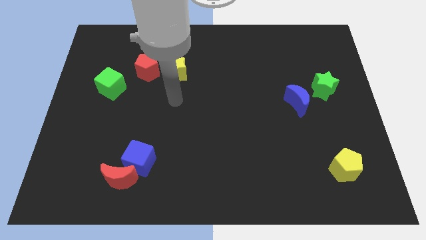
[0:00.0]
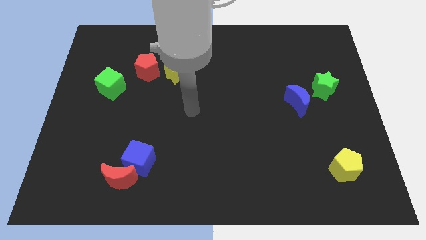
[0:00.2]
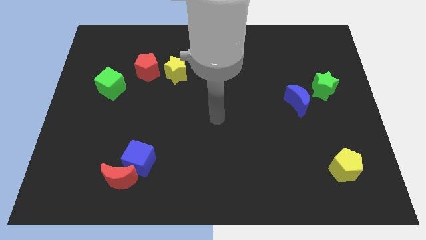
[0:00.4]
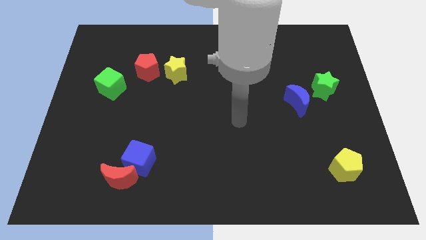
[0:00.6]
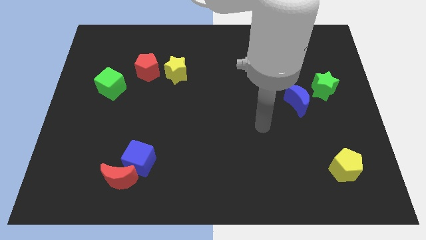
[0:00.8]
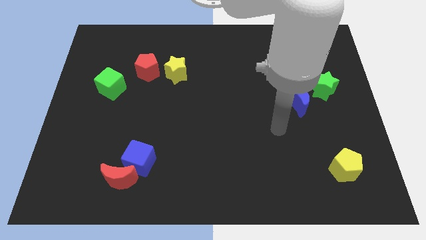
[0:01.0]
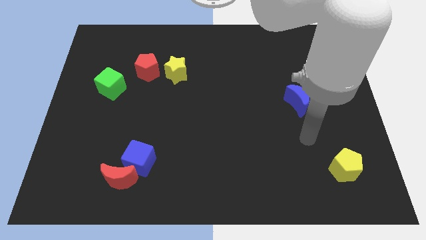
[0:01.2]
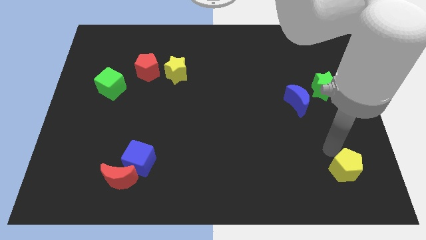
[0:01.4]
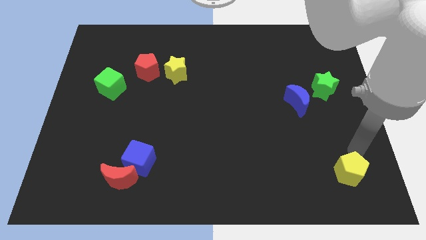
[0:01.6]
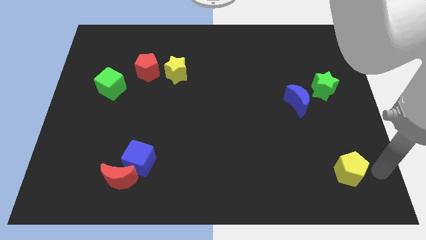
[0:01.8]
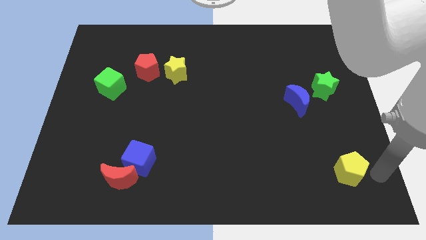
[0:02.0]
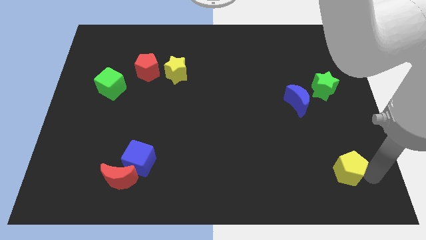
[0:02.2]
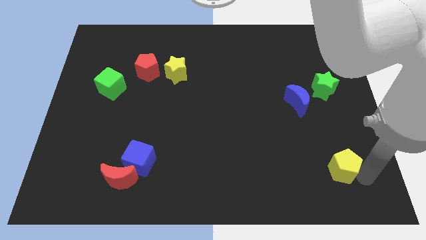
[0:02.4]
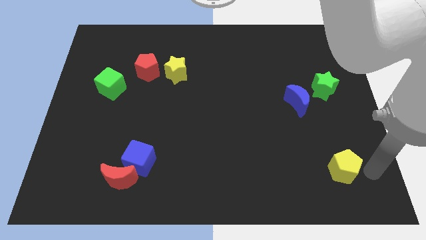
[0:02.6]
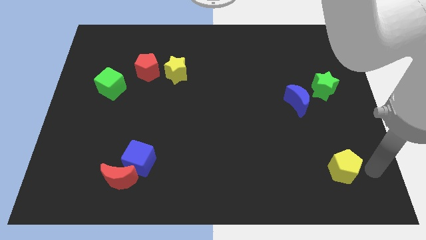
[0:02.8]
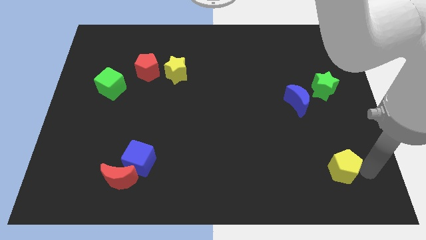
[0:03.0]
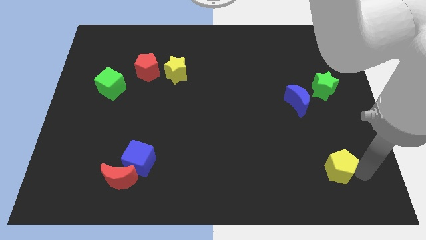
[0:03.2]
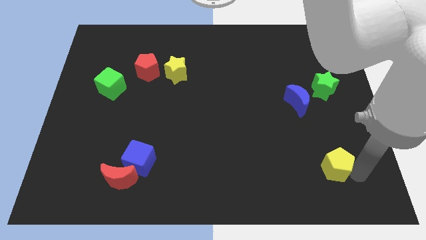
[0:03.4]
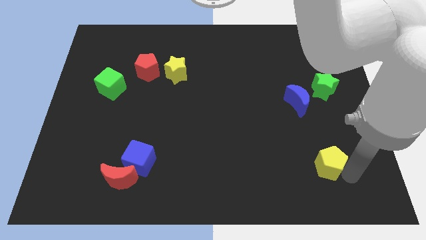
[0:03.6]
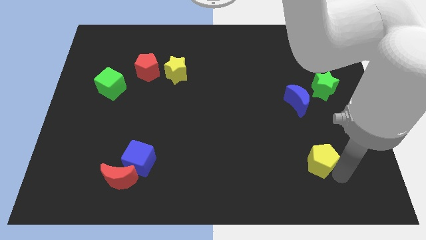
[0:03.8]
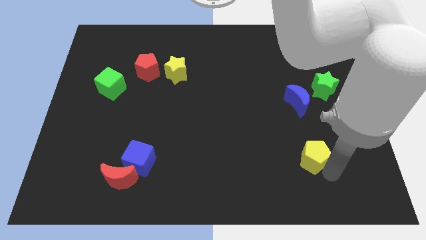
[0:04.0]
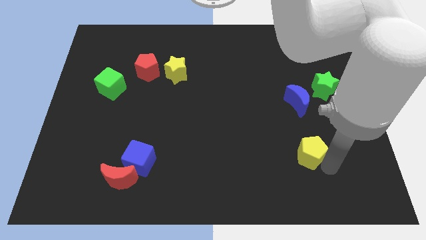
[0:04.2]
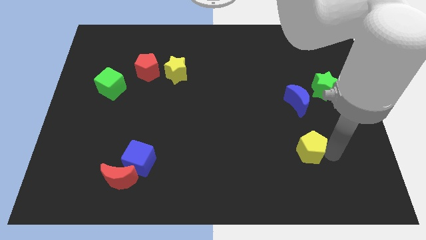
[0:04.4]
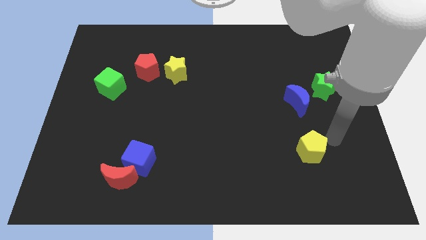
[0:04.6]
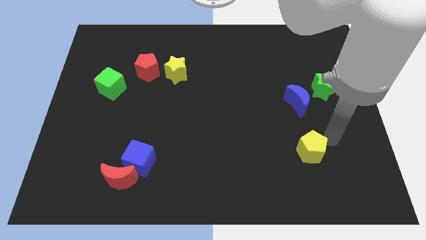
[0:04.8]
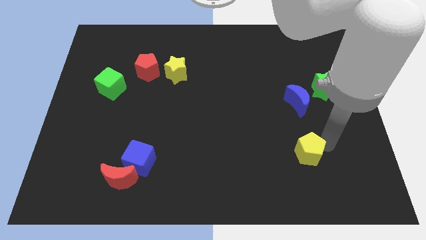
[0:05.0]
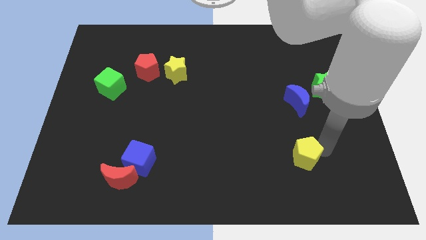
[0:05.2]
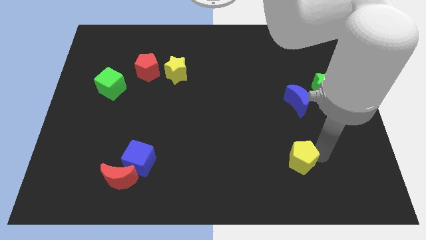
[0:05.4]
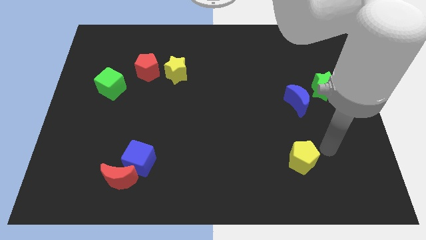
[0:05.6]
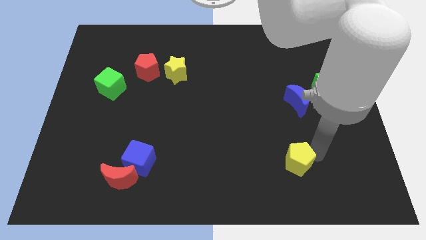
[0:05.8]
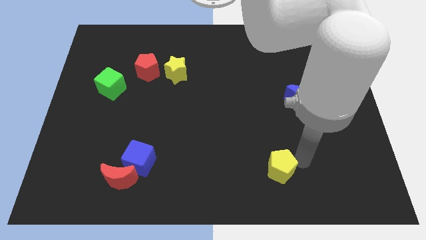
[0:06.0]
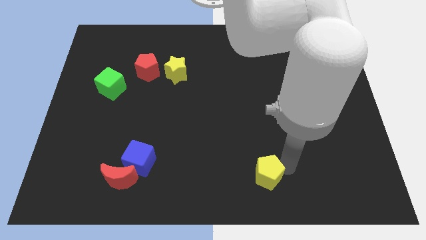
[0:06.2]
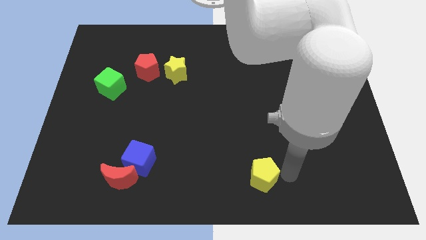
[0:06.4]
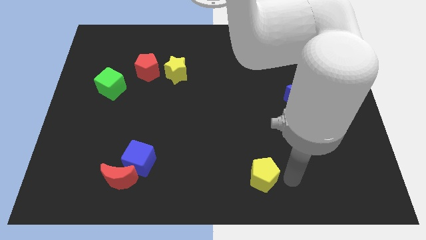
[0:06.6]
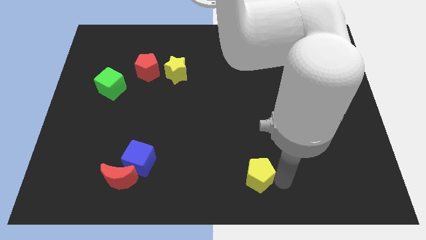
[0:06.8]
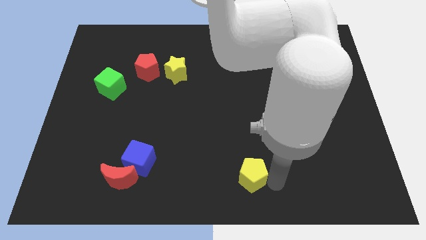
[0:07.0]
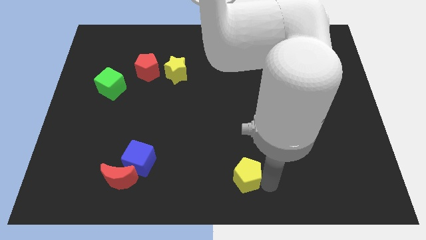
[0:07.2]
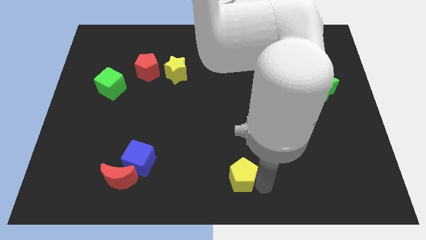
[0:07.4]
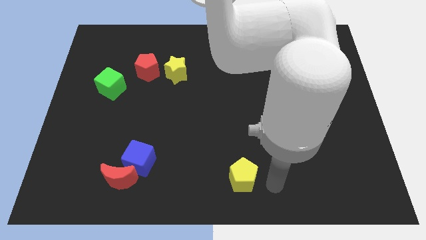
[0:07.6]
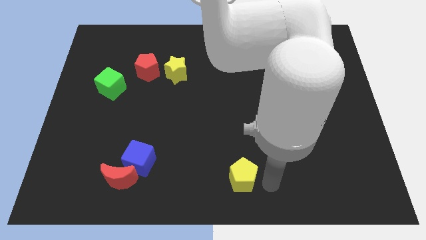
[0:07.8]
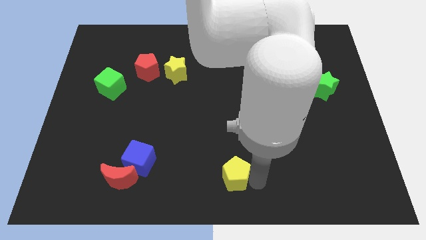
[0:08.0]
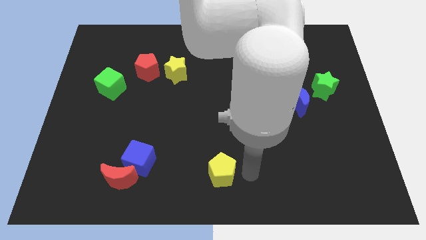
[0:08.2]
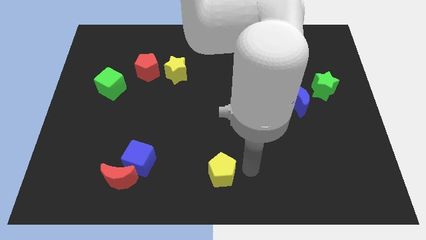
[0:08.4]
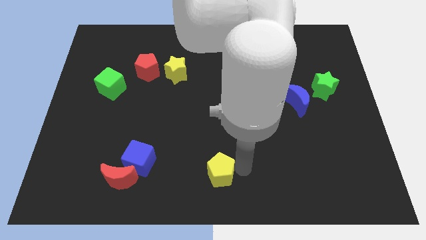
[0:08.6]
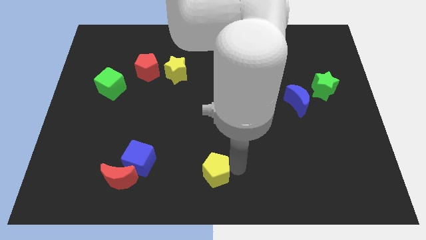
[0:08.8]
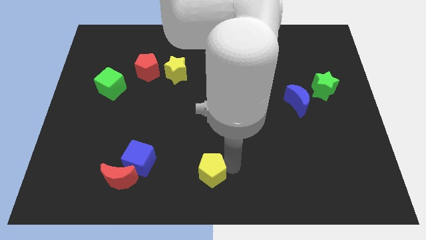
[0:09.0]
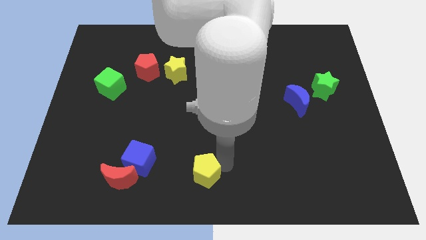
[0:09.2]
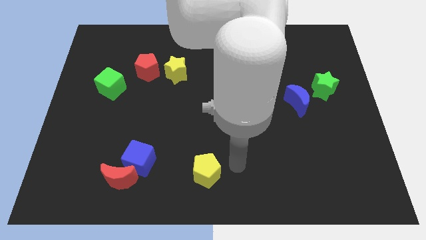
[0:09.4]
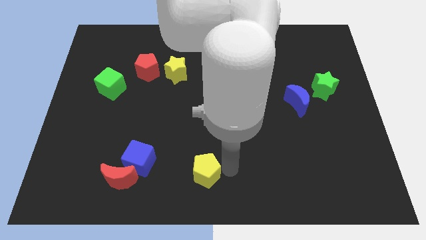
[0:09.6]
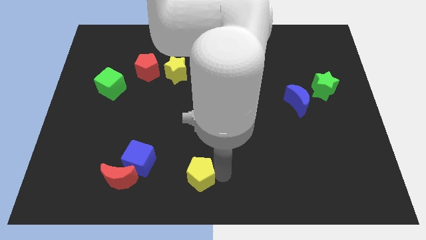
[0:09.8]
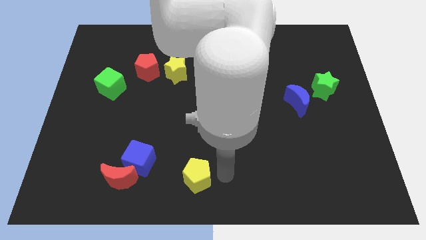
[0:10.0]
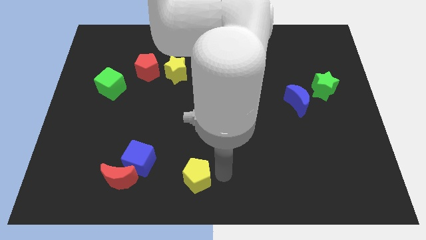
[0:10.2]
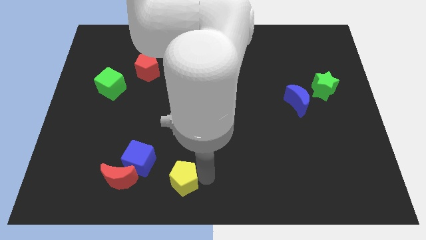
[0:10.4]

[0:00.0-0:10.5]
put the yellow pentagon to the bottom right side of the blue cube

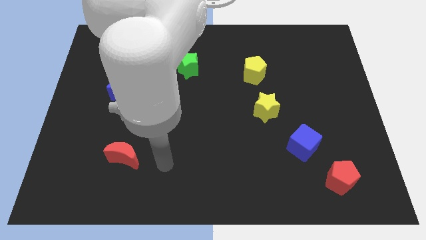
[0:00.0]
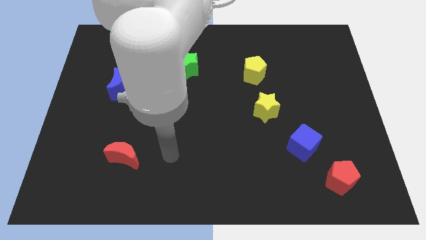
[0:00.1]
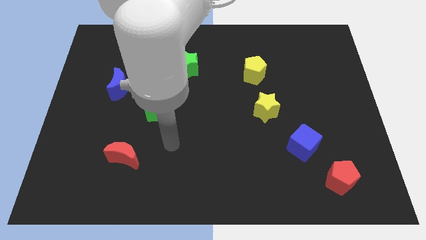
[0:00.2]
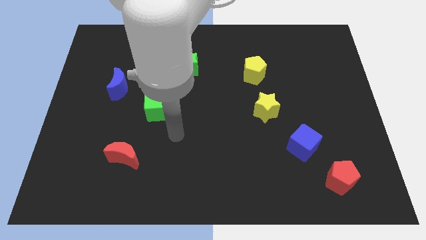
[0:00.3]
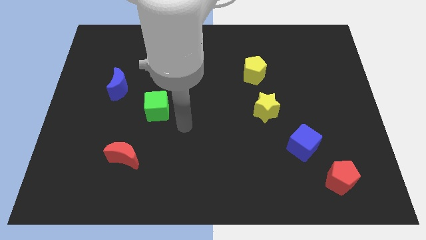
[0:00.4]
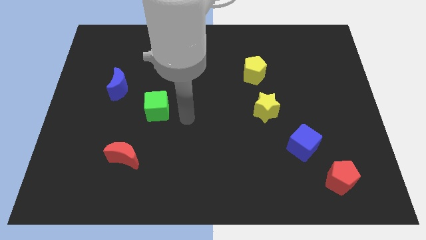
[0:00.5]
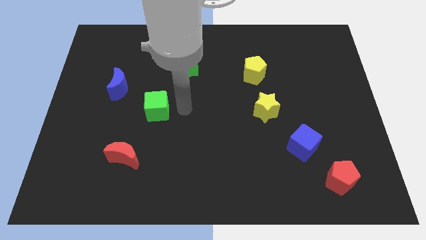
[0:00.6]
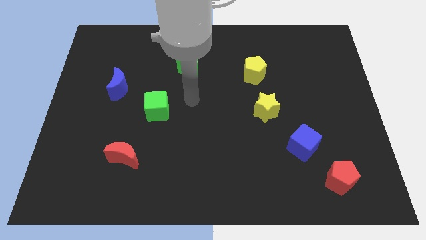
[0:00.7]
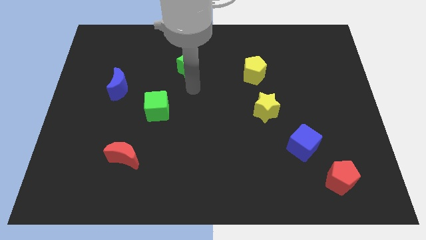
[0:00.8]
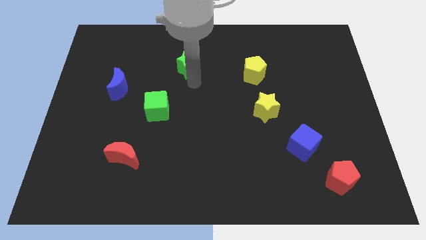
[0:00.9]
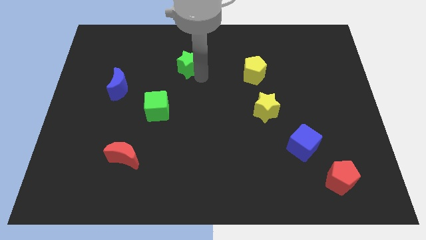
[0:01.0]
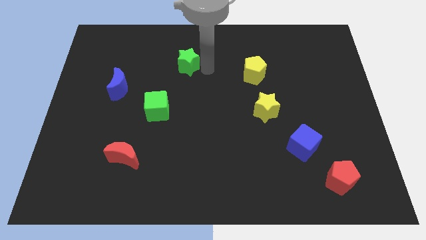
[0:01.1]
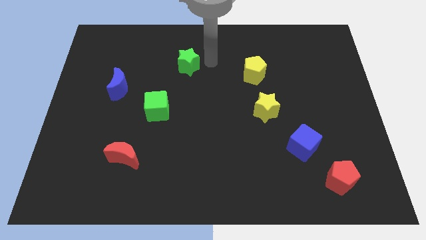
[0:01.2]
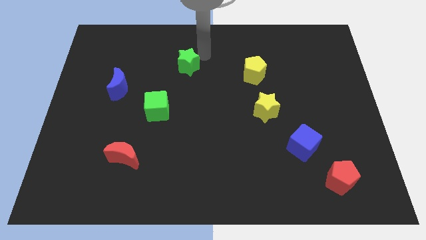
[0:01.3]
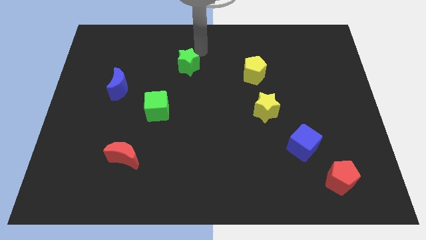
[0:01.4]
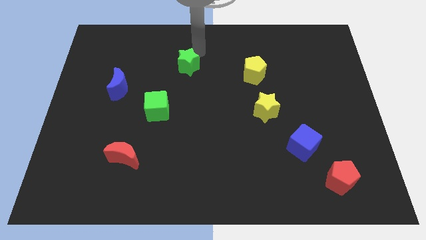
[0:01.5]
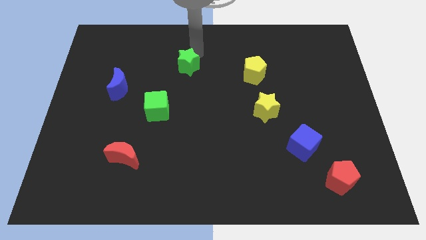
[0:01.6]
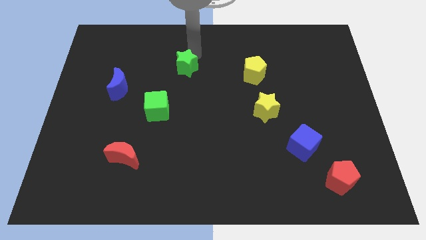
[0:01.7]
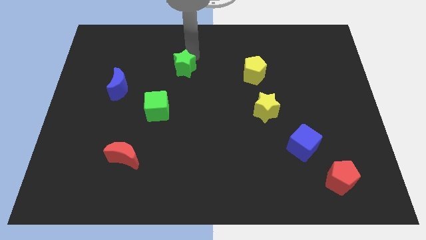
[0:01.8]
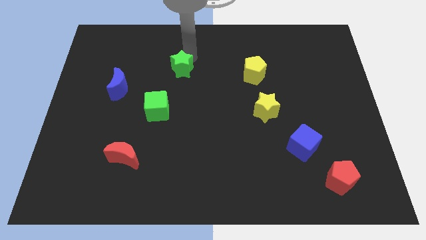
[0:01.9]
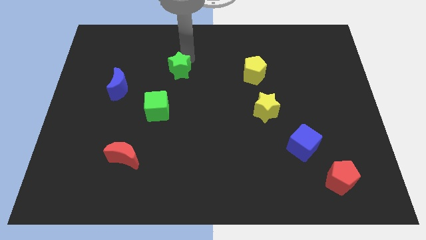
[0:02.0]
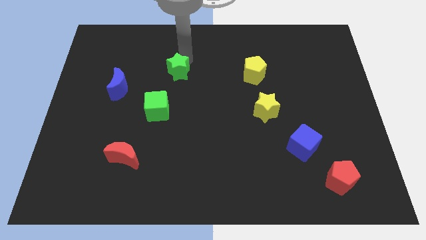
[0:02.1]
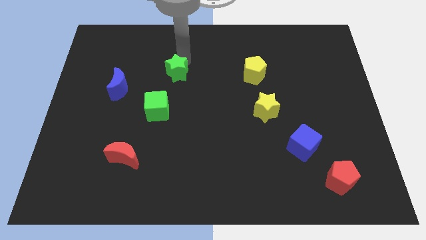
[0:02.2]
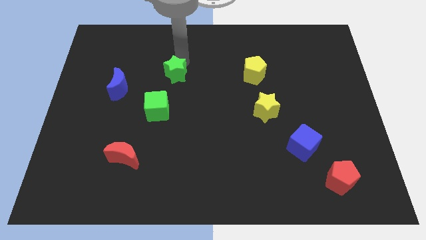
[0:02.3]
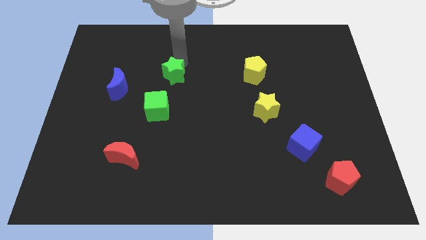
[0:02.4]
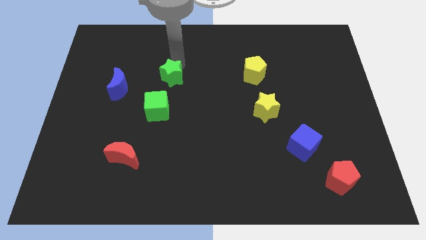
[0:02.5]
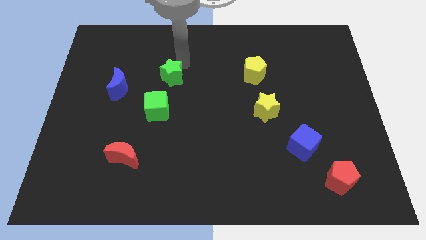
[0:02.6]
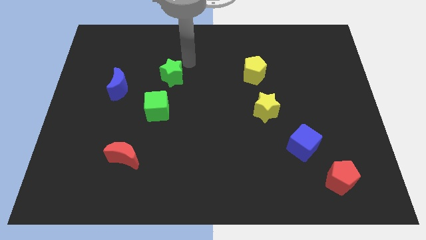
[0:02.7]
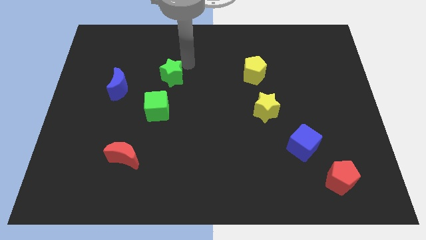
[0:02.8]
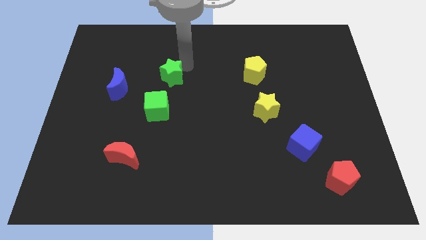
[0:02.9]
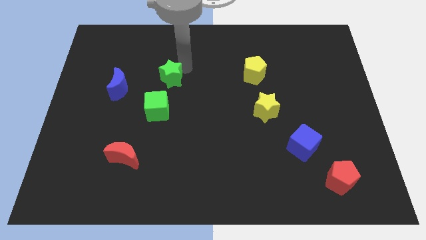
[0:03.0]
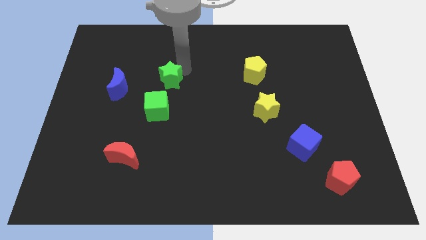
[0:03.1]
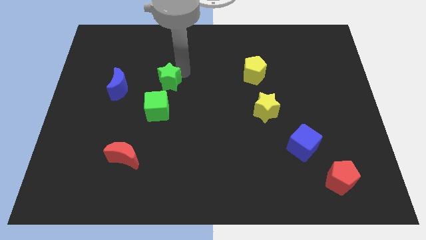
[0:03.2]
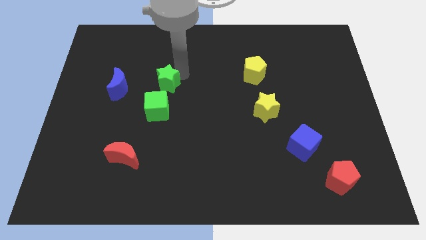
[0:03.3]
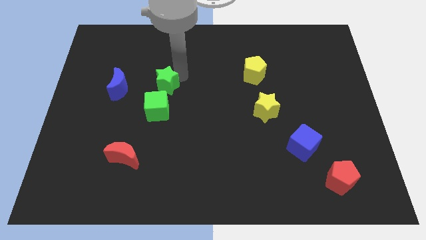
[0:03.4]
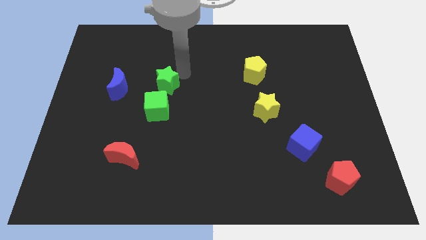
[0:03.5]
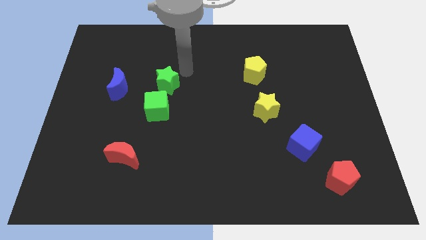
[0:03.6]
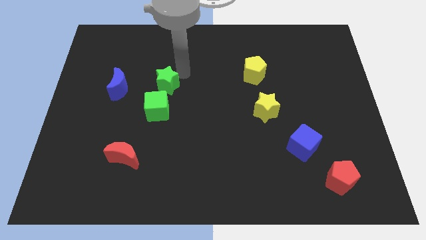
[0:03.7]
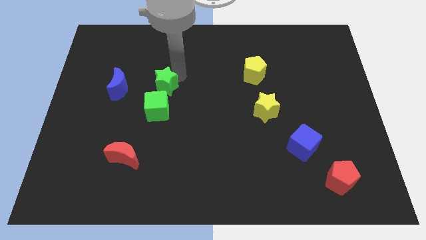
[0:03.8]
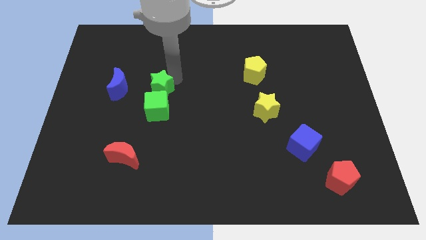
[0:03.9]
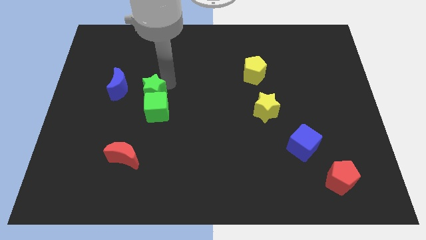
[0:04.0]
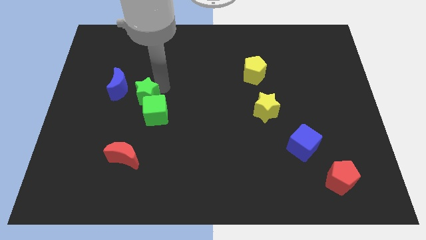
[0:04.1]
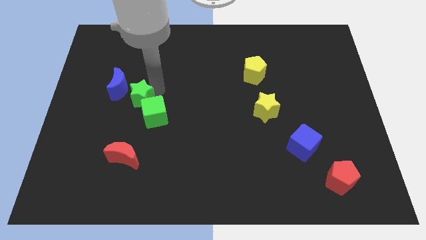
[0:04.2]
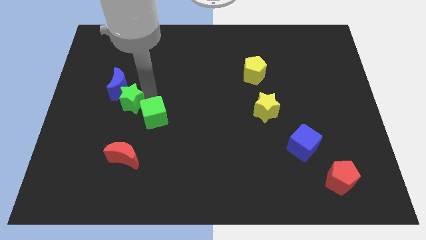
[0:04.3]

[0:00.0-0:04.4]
move the green star below the blue moon
